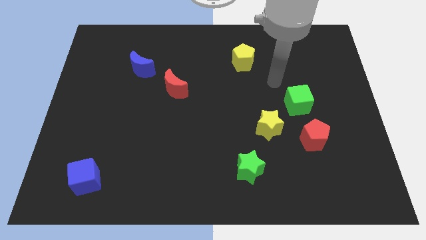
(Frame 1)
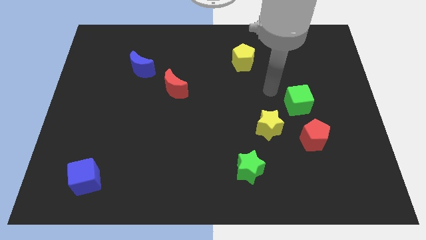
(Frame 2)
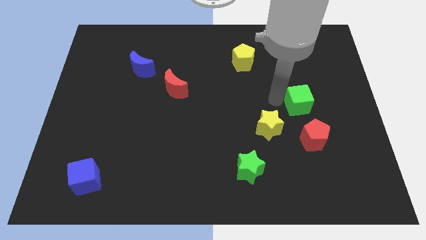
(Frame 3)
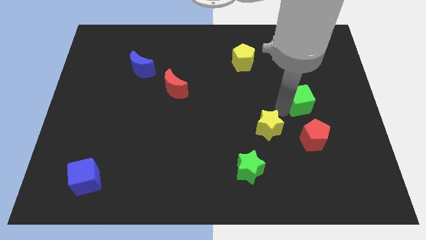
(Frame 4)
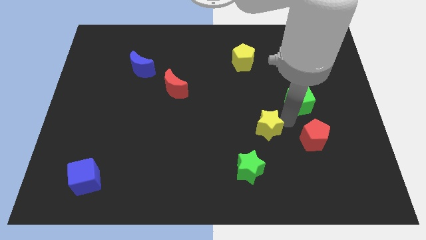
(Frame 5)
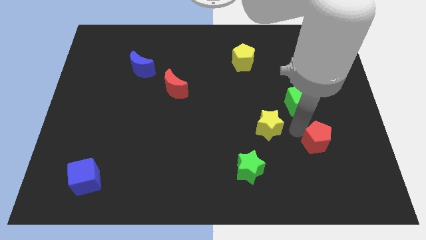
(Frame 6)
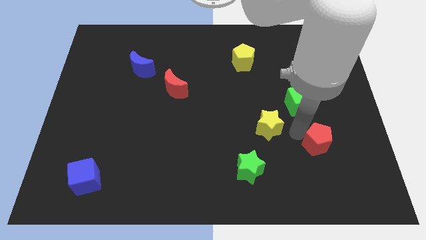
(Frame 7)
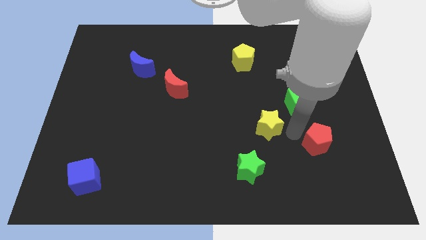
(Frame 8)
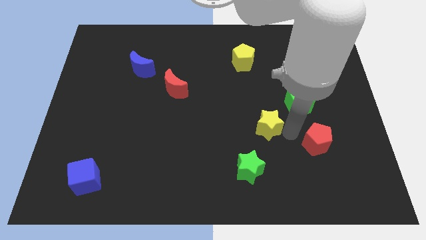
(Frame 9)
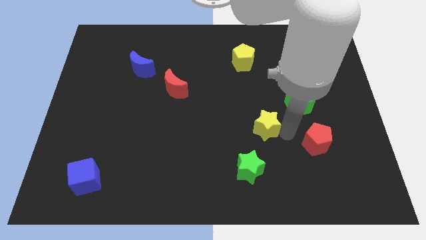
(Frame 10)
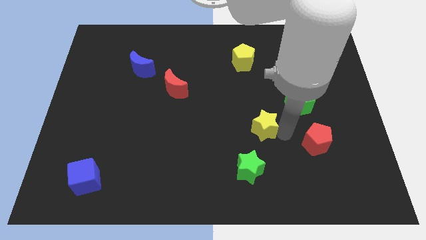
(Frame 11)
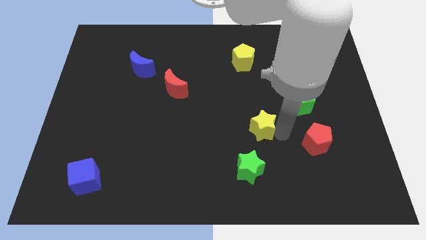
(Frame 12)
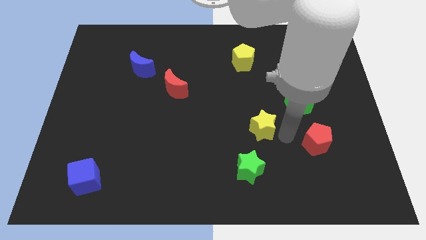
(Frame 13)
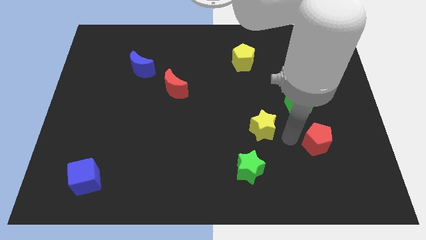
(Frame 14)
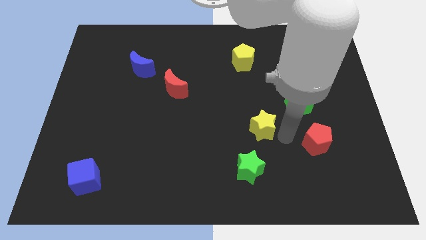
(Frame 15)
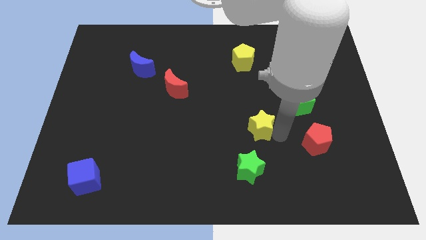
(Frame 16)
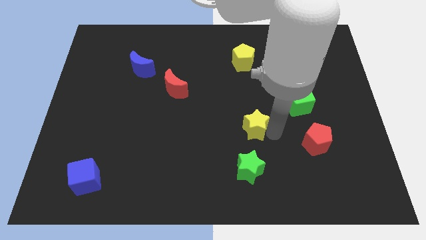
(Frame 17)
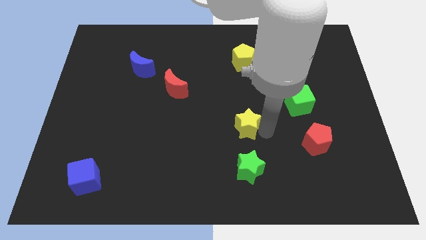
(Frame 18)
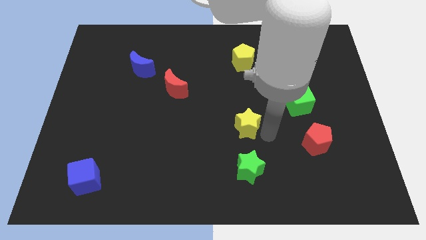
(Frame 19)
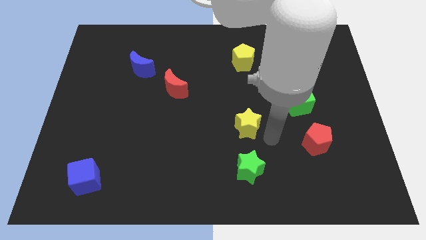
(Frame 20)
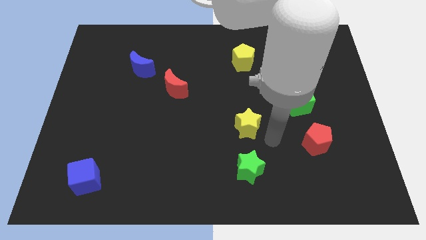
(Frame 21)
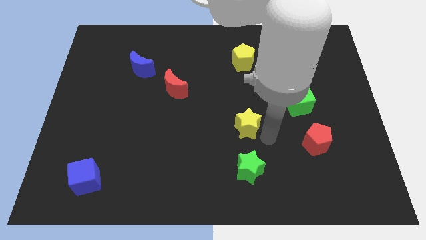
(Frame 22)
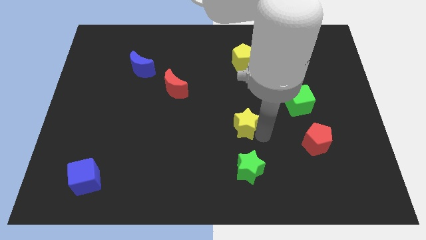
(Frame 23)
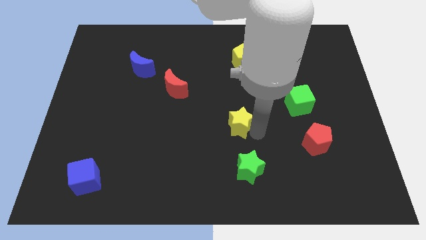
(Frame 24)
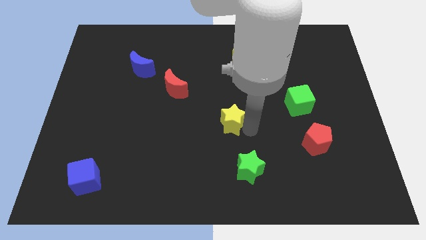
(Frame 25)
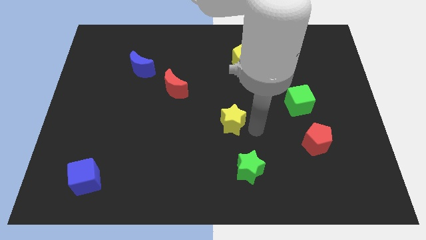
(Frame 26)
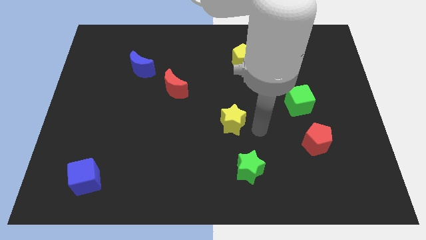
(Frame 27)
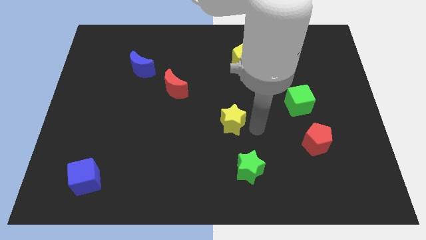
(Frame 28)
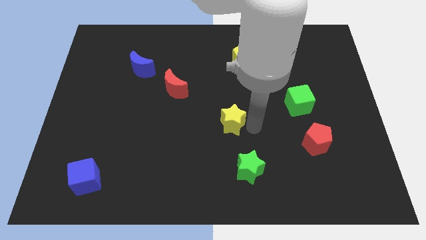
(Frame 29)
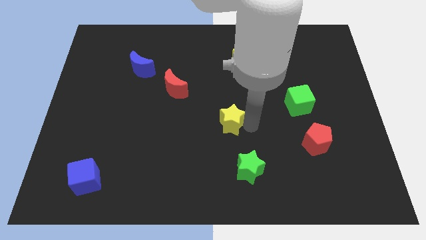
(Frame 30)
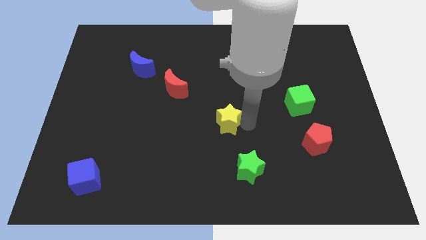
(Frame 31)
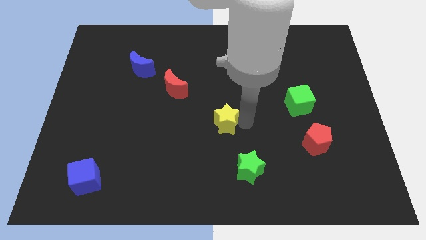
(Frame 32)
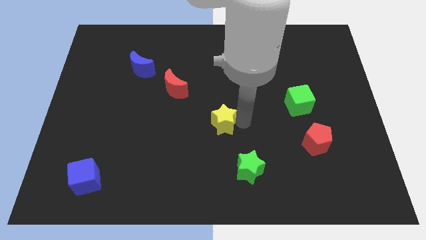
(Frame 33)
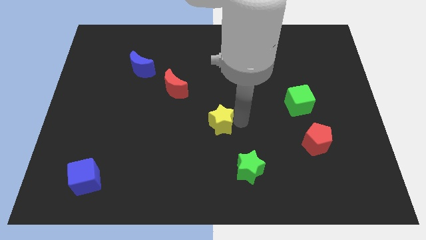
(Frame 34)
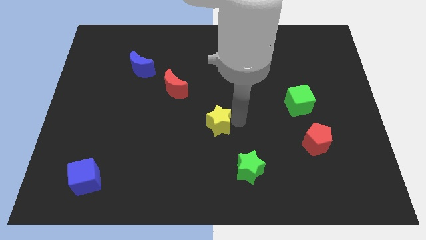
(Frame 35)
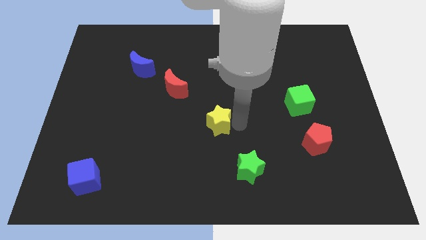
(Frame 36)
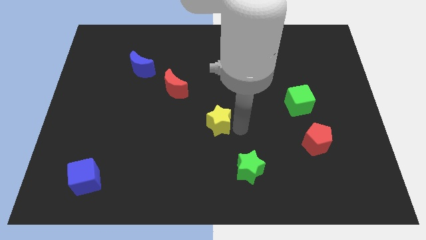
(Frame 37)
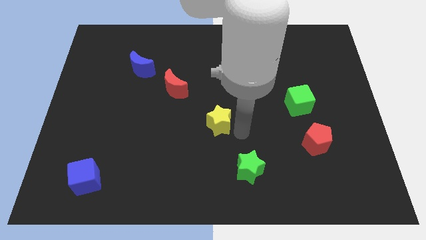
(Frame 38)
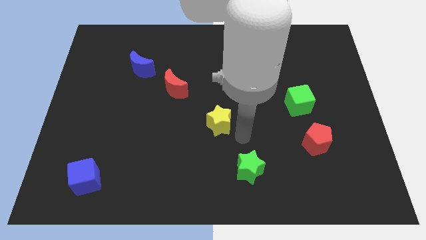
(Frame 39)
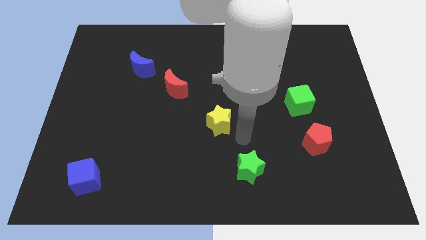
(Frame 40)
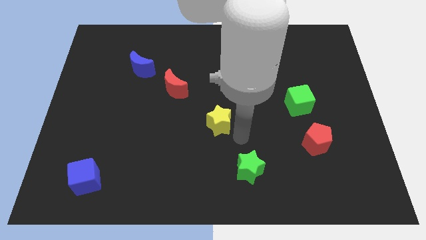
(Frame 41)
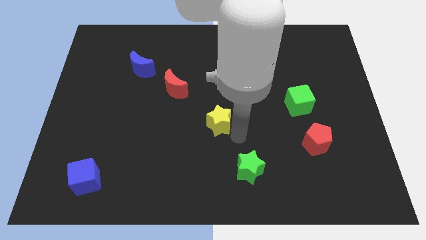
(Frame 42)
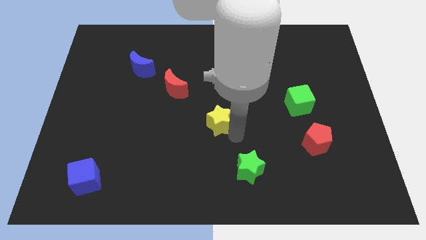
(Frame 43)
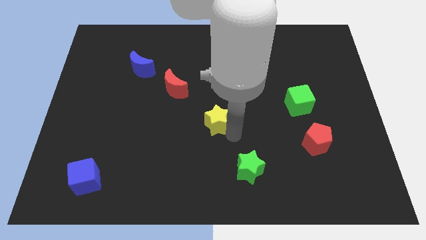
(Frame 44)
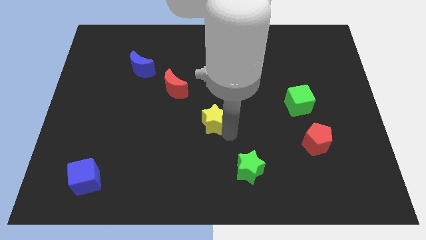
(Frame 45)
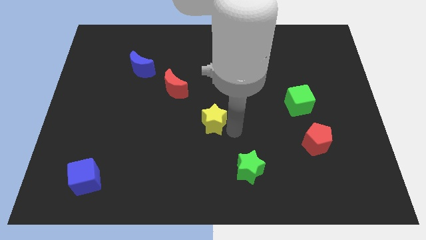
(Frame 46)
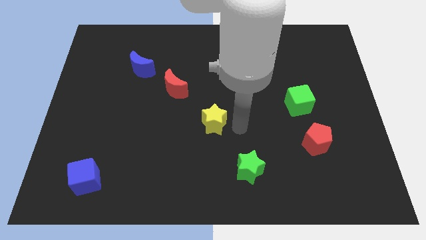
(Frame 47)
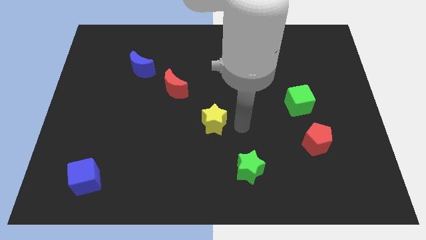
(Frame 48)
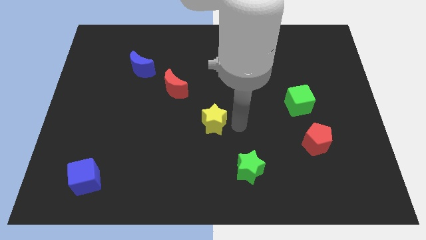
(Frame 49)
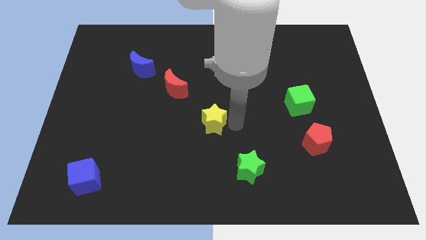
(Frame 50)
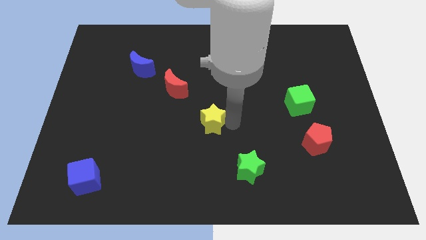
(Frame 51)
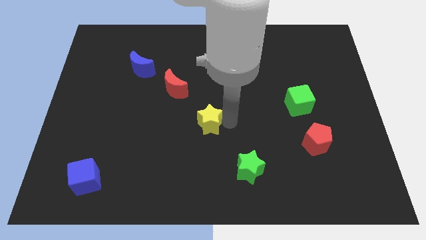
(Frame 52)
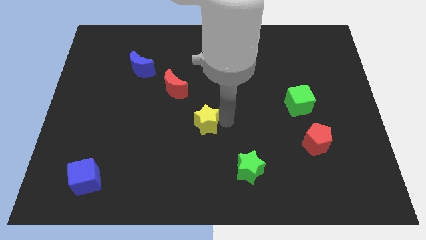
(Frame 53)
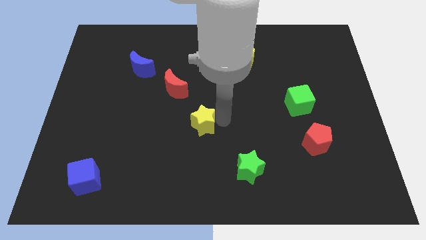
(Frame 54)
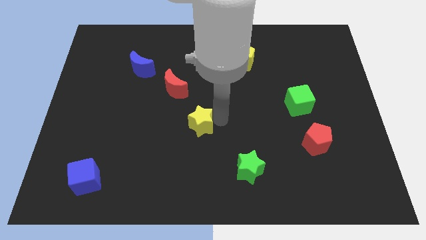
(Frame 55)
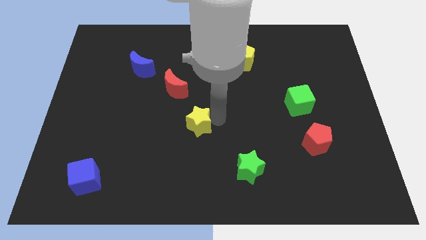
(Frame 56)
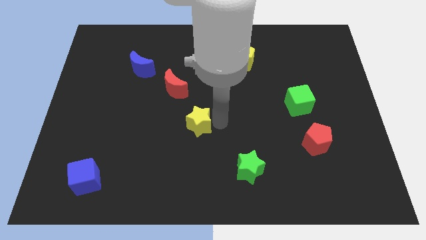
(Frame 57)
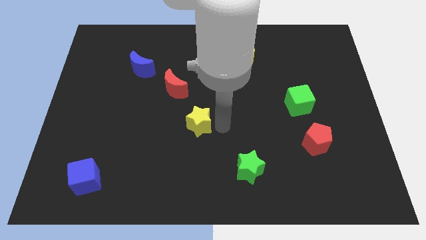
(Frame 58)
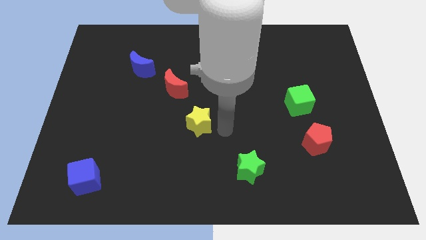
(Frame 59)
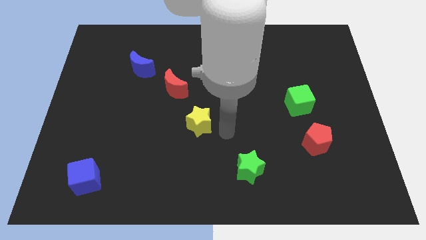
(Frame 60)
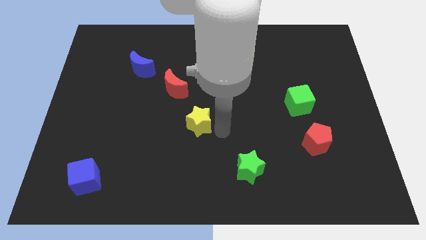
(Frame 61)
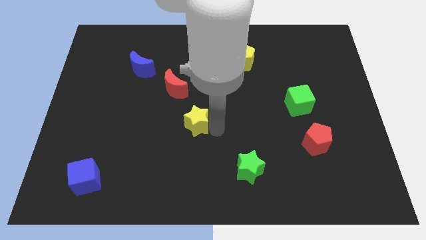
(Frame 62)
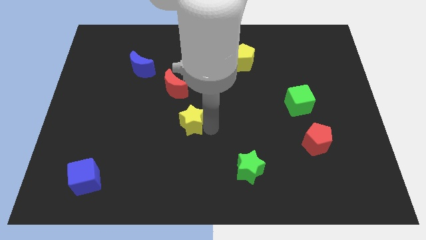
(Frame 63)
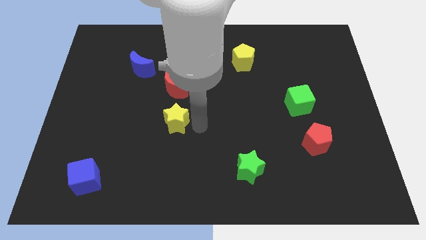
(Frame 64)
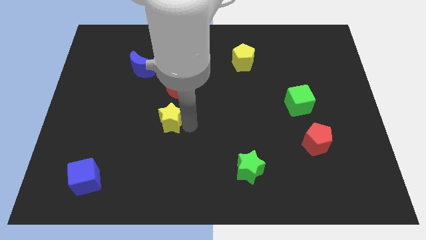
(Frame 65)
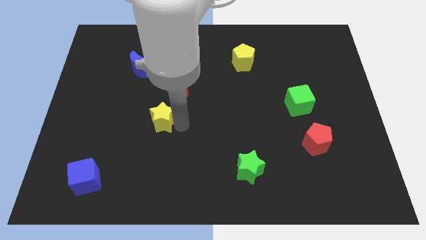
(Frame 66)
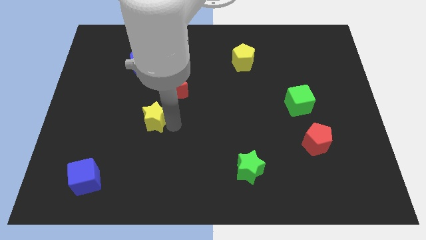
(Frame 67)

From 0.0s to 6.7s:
slide the yellow star to the bottom left side of the red moon

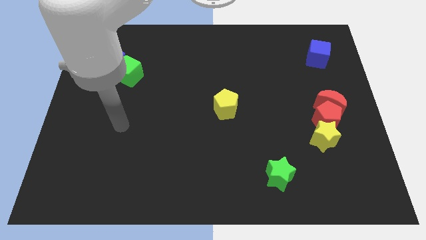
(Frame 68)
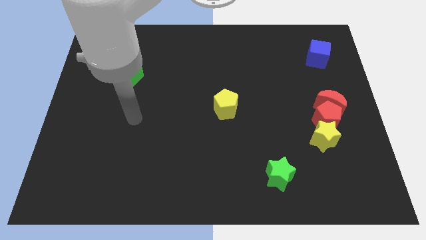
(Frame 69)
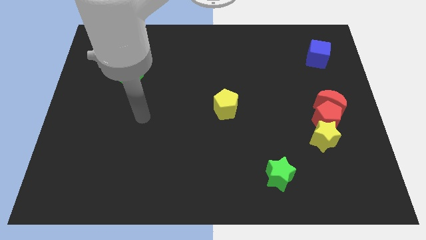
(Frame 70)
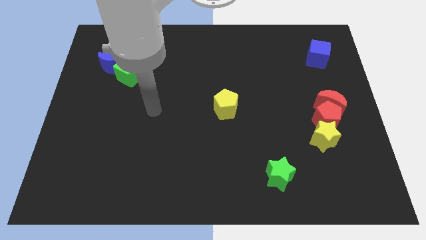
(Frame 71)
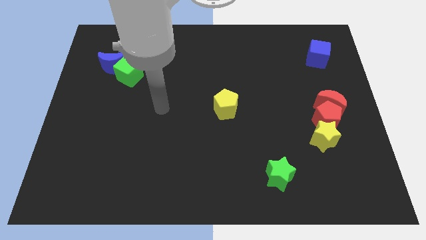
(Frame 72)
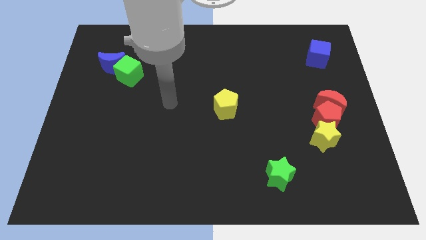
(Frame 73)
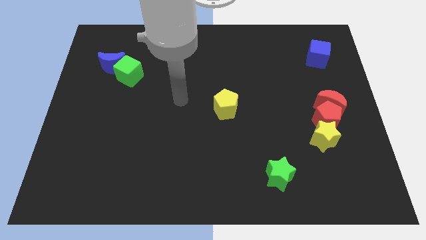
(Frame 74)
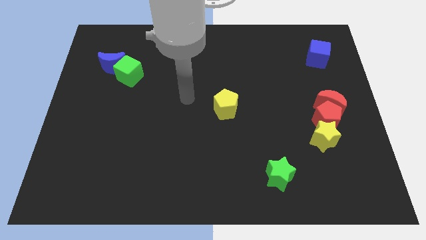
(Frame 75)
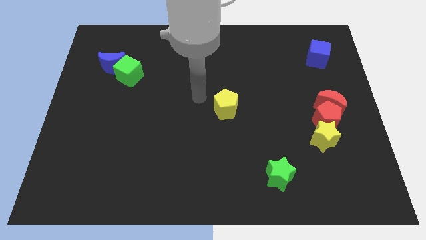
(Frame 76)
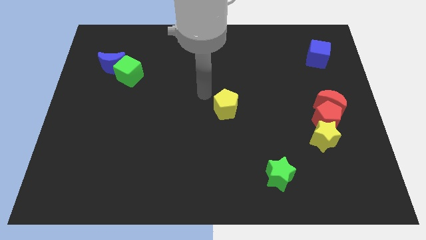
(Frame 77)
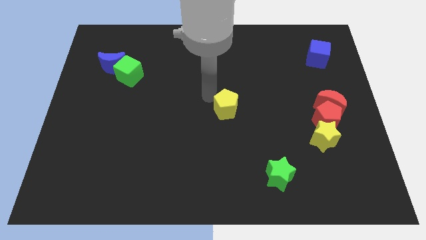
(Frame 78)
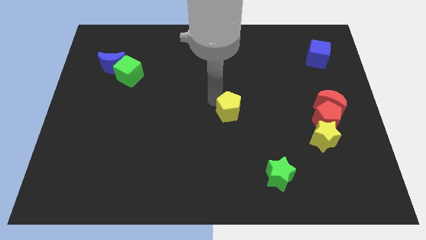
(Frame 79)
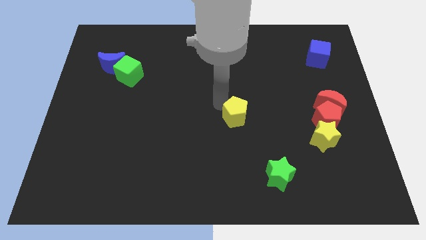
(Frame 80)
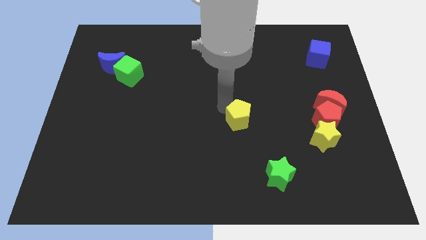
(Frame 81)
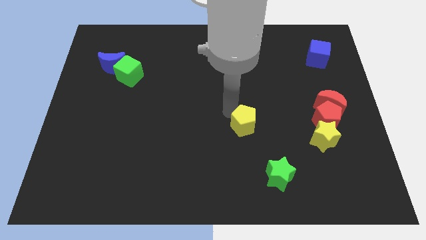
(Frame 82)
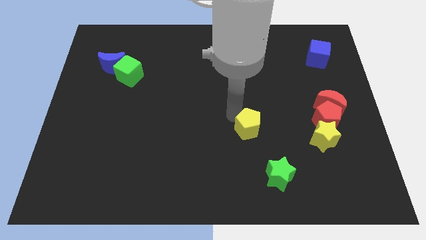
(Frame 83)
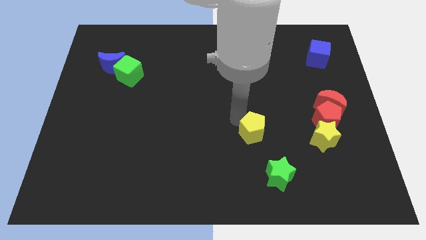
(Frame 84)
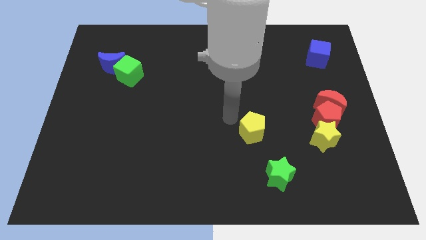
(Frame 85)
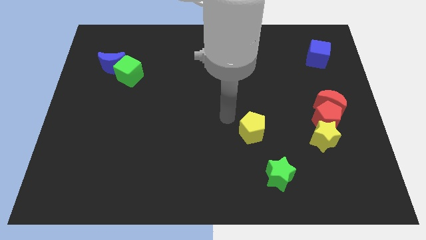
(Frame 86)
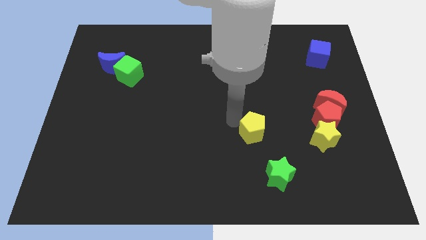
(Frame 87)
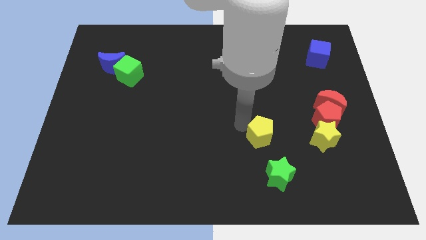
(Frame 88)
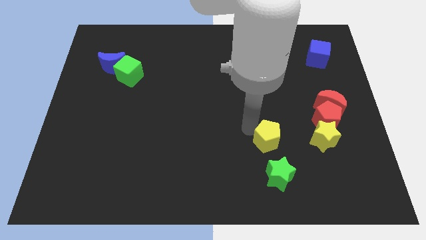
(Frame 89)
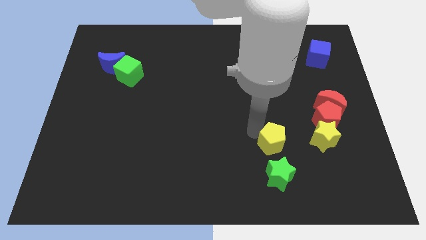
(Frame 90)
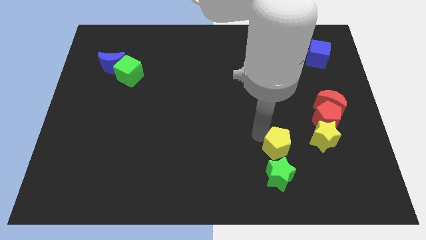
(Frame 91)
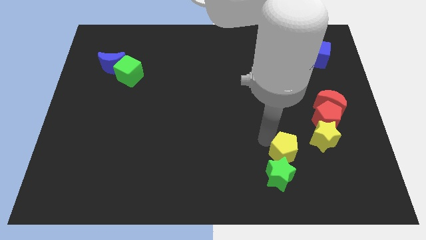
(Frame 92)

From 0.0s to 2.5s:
move the yellow pentagon to the bottom left side of the yellow star
